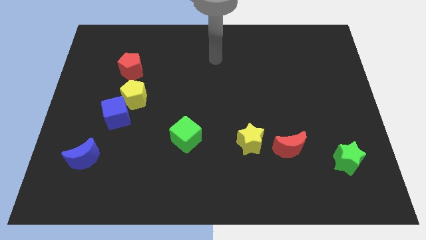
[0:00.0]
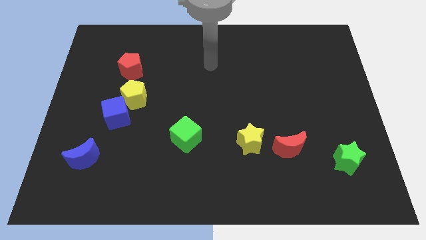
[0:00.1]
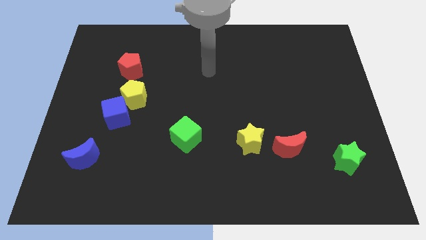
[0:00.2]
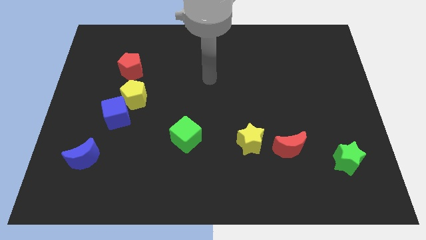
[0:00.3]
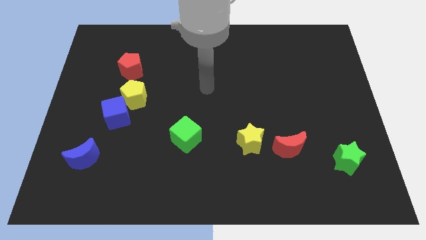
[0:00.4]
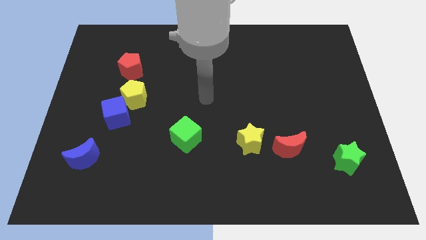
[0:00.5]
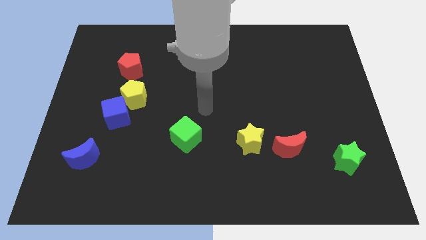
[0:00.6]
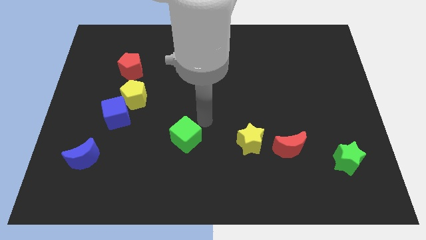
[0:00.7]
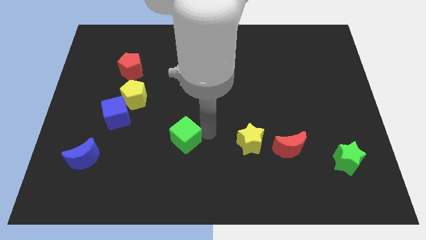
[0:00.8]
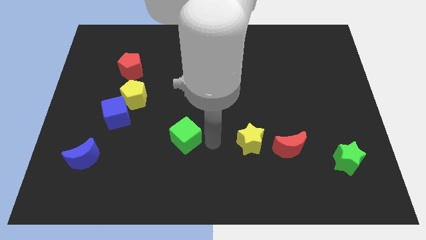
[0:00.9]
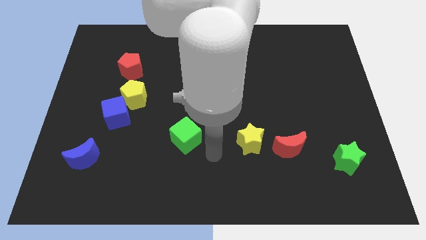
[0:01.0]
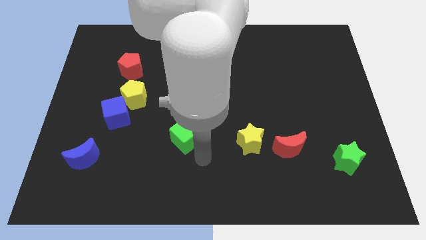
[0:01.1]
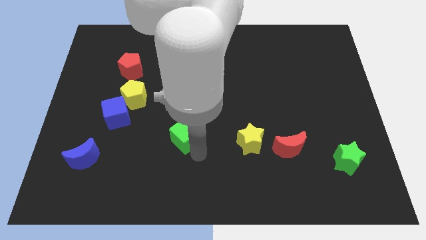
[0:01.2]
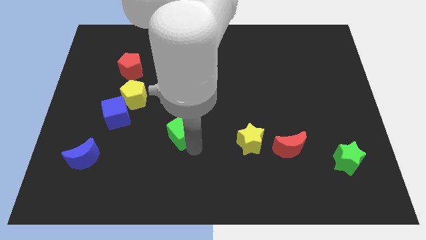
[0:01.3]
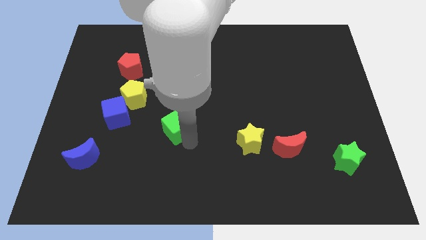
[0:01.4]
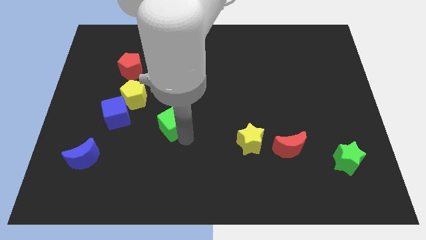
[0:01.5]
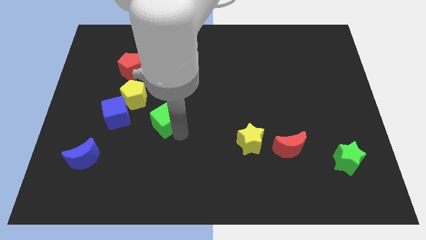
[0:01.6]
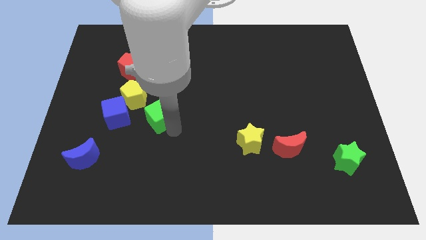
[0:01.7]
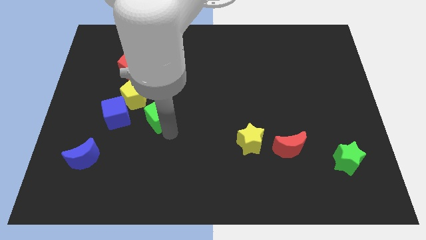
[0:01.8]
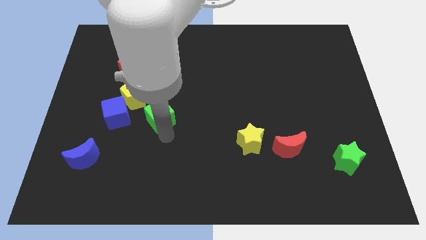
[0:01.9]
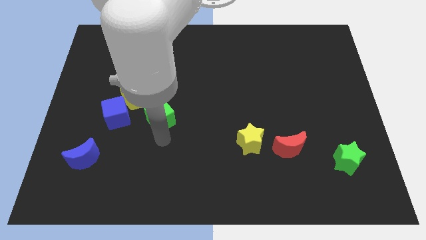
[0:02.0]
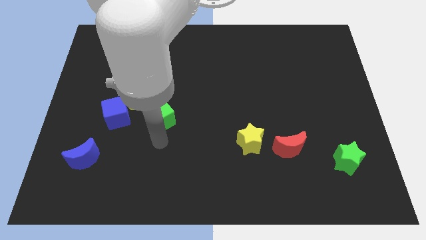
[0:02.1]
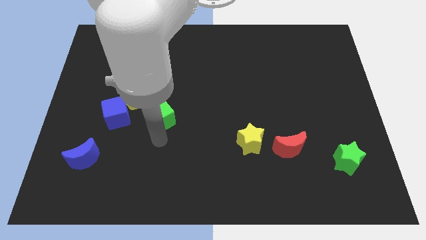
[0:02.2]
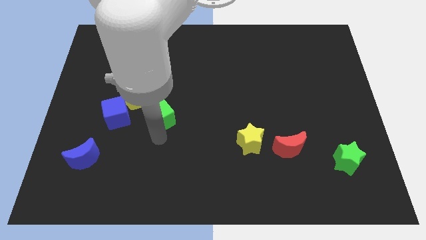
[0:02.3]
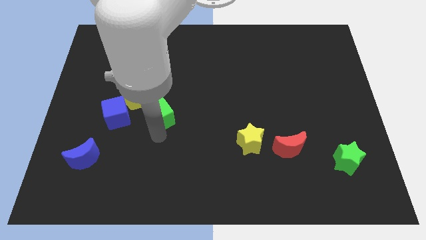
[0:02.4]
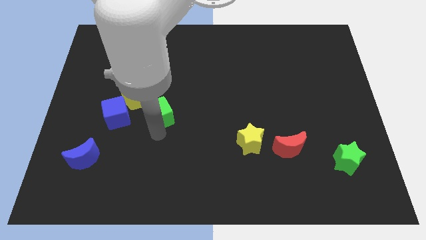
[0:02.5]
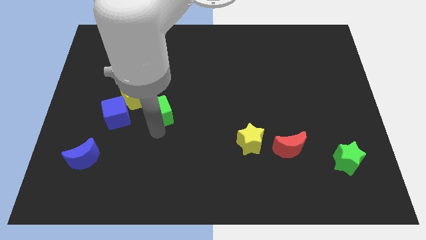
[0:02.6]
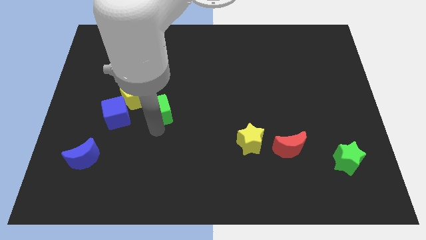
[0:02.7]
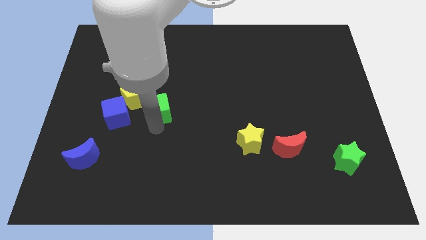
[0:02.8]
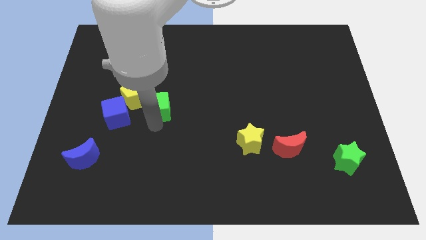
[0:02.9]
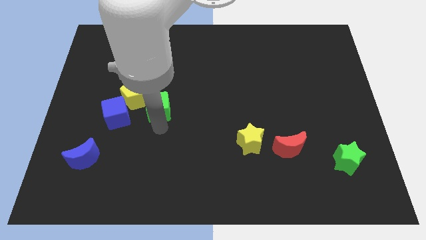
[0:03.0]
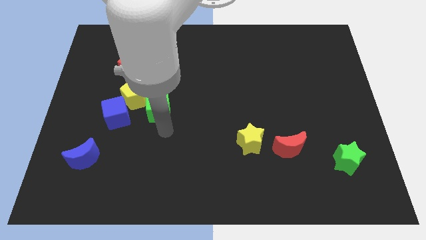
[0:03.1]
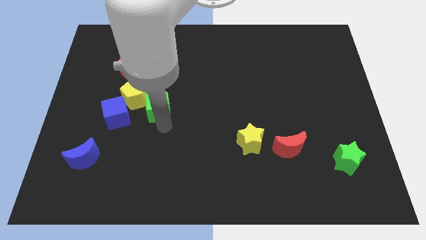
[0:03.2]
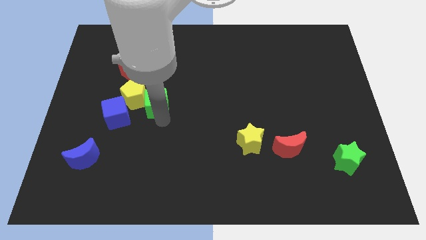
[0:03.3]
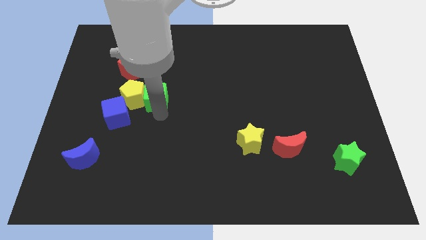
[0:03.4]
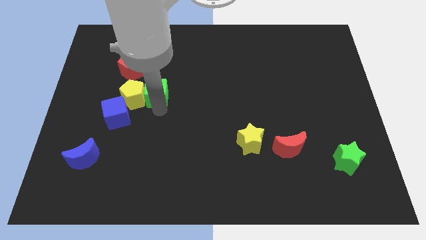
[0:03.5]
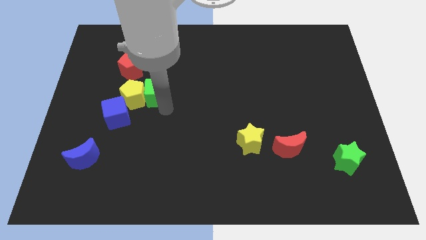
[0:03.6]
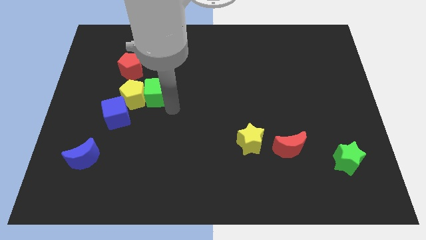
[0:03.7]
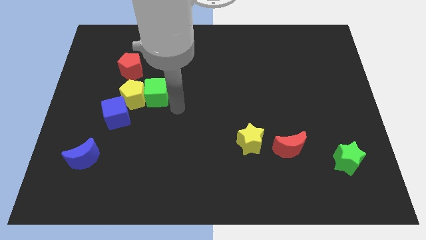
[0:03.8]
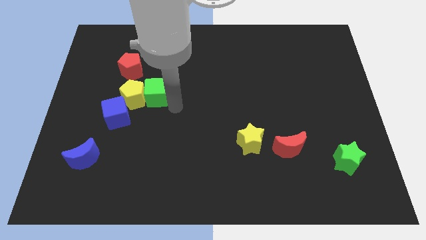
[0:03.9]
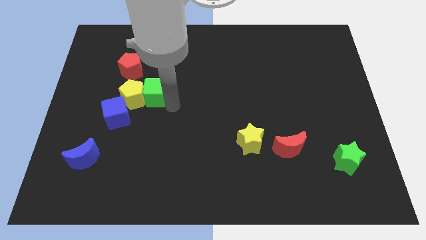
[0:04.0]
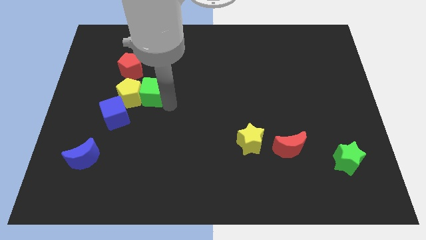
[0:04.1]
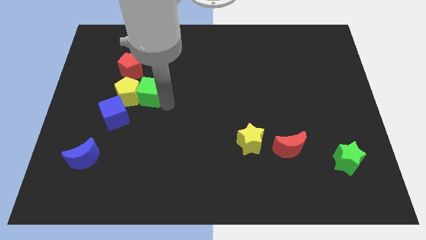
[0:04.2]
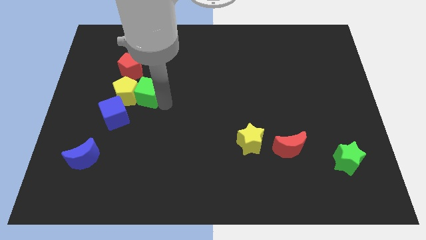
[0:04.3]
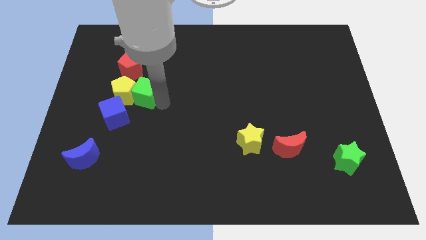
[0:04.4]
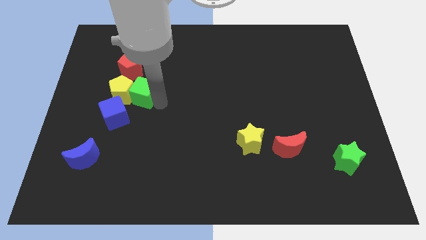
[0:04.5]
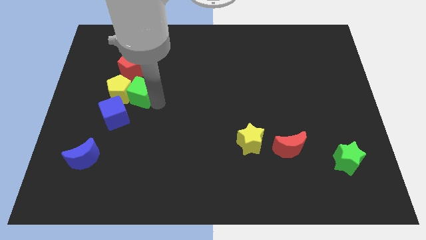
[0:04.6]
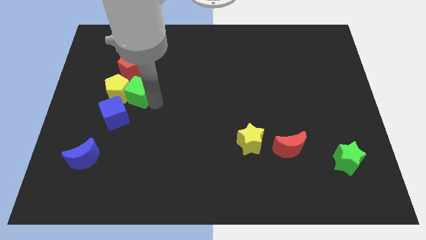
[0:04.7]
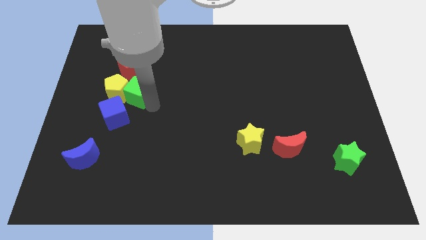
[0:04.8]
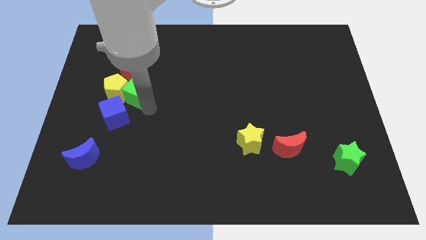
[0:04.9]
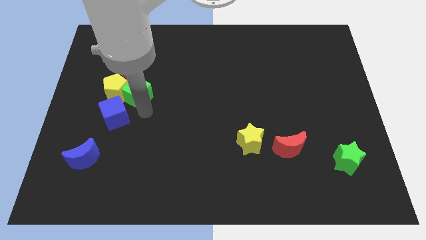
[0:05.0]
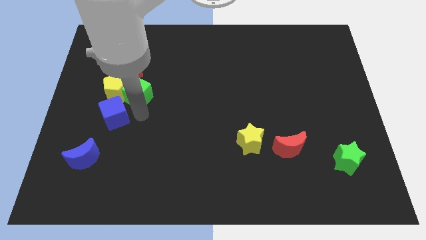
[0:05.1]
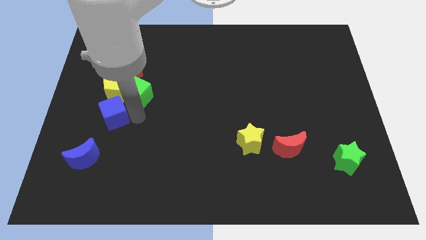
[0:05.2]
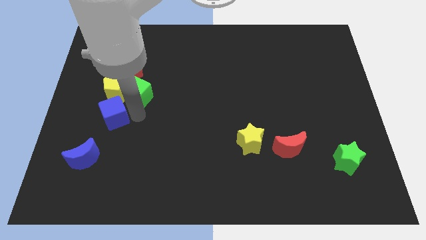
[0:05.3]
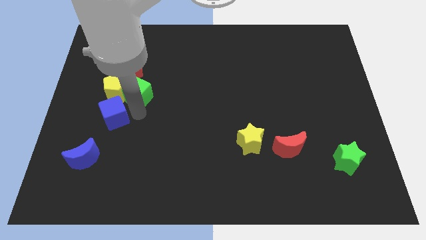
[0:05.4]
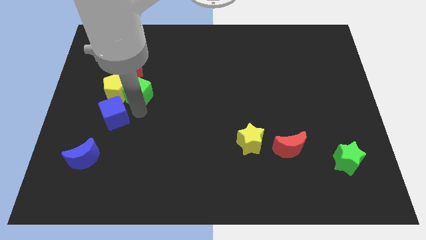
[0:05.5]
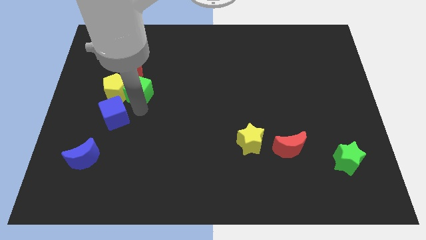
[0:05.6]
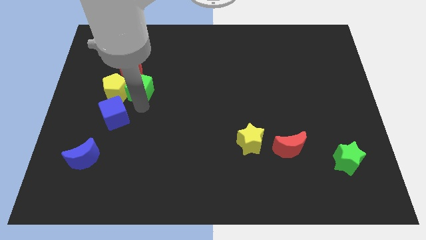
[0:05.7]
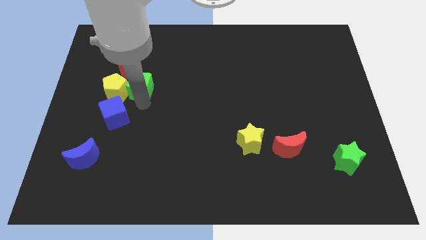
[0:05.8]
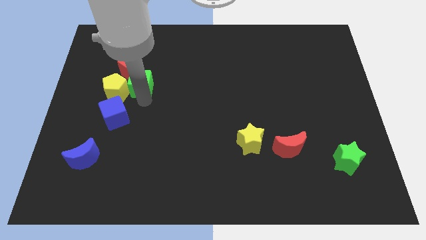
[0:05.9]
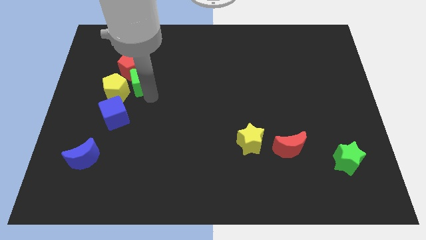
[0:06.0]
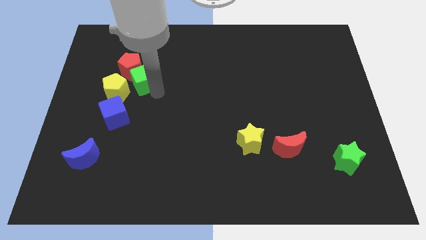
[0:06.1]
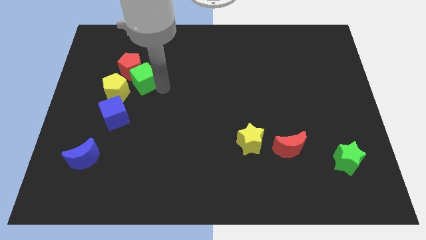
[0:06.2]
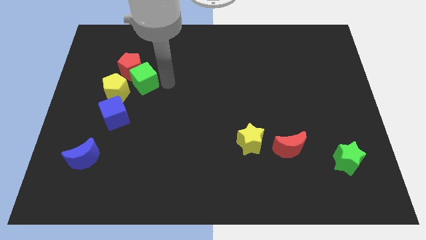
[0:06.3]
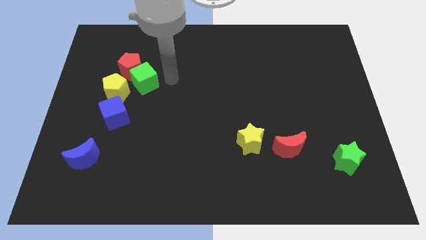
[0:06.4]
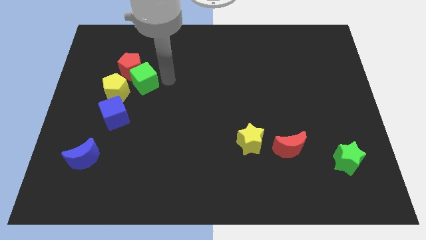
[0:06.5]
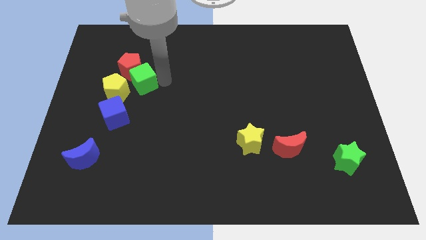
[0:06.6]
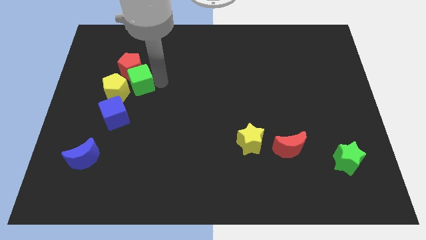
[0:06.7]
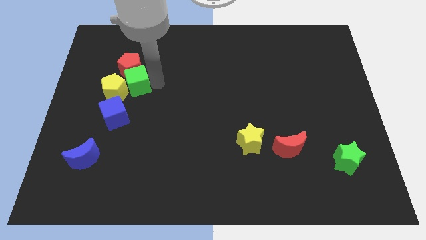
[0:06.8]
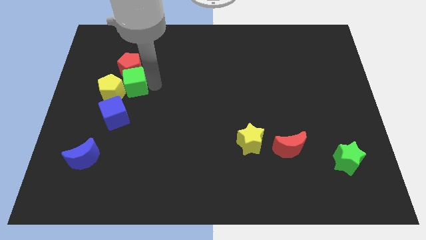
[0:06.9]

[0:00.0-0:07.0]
move the green cube diagonally down and to the left of the red pentagon
